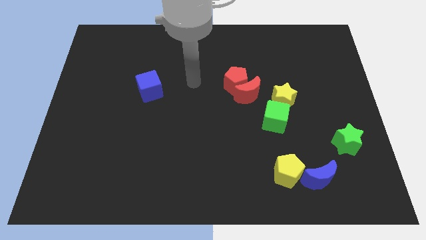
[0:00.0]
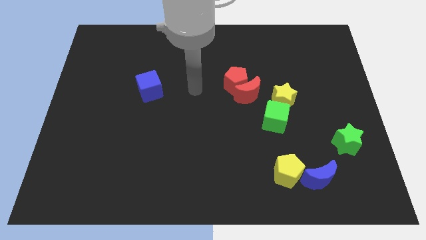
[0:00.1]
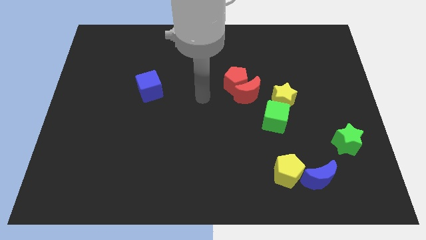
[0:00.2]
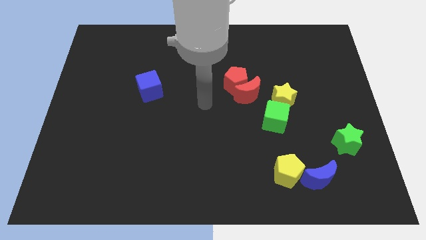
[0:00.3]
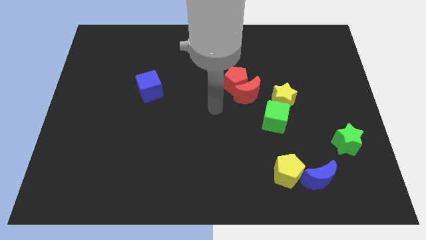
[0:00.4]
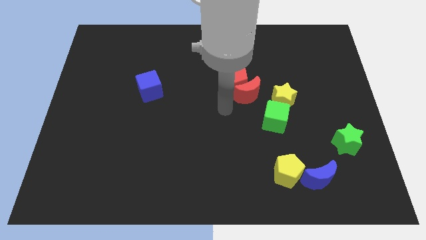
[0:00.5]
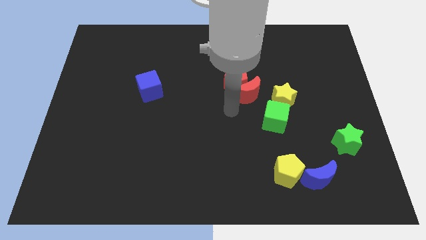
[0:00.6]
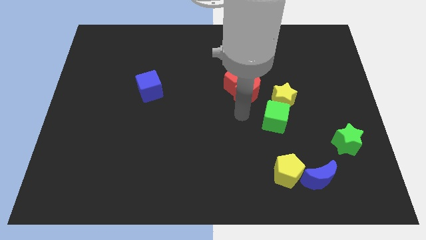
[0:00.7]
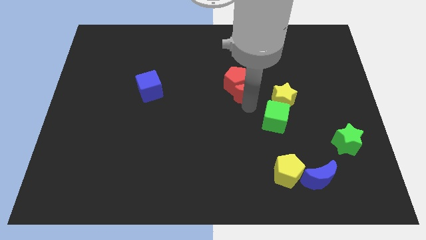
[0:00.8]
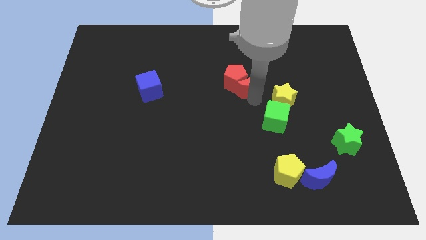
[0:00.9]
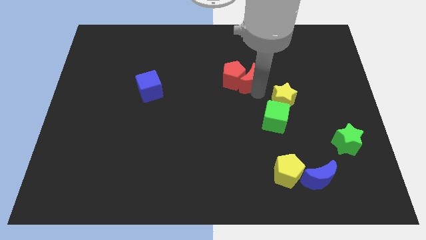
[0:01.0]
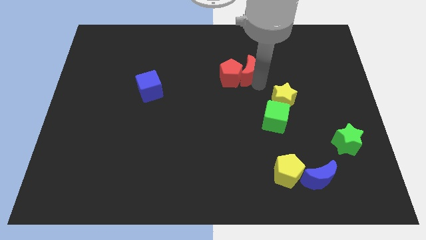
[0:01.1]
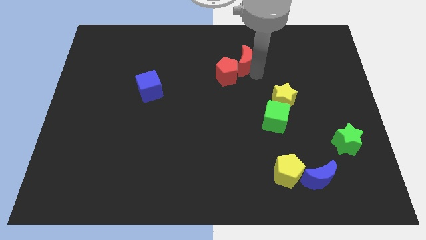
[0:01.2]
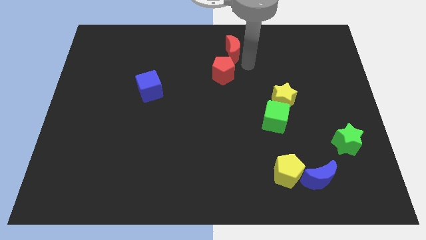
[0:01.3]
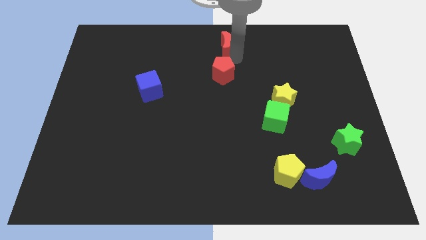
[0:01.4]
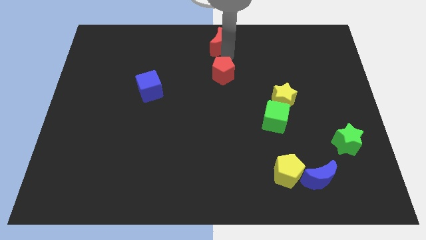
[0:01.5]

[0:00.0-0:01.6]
pull the red pentagon apart from the red moon

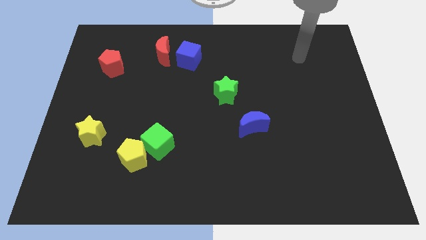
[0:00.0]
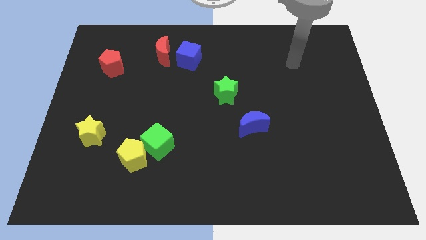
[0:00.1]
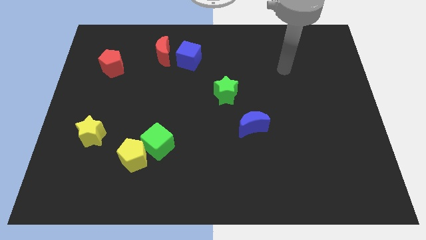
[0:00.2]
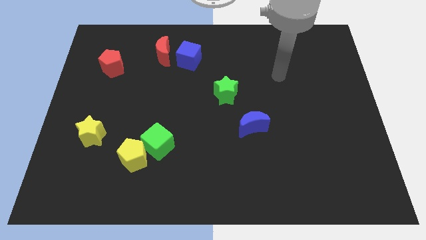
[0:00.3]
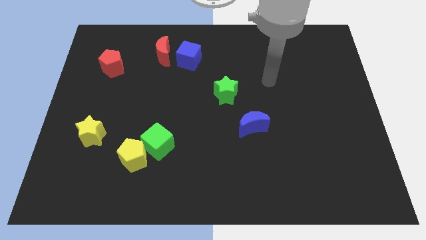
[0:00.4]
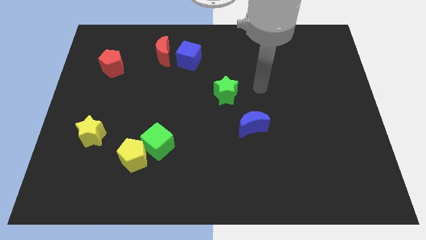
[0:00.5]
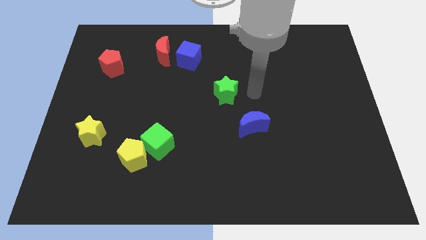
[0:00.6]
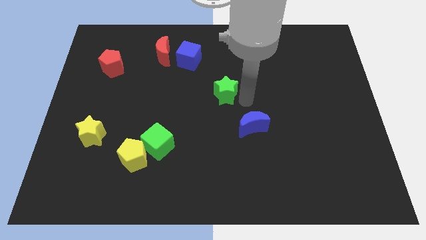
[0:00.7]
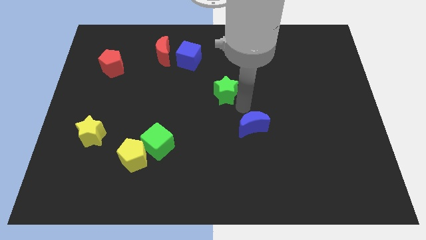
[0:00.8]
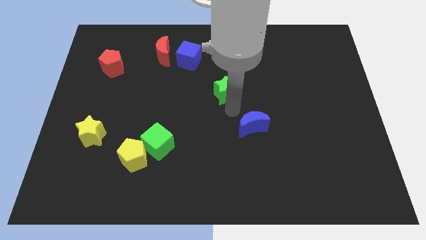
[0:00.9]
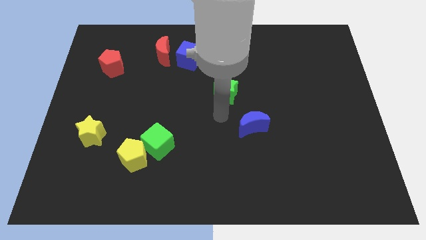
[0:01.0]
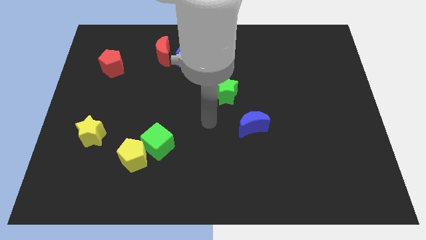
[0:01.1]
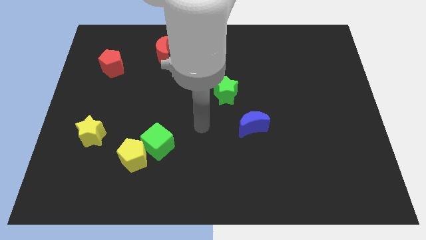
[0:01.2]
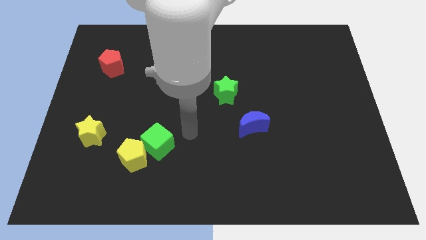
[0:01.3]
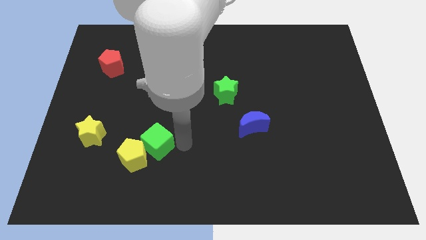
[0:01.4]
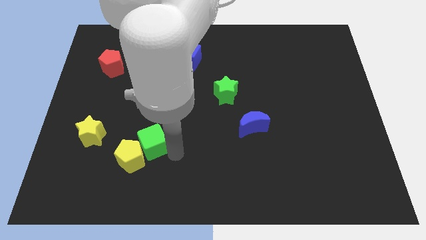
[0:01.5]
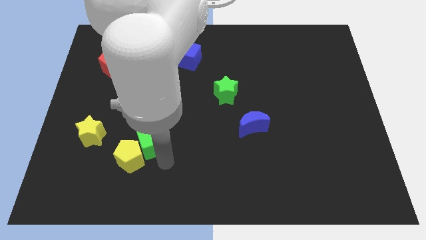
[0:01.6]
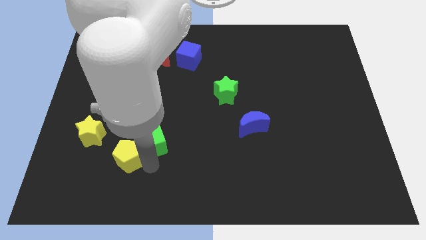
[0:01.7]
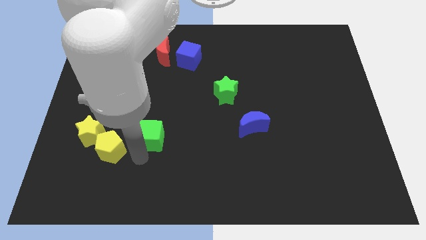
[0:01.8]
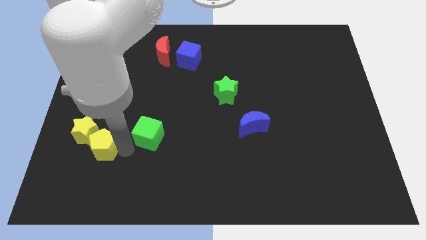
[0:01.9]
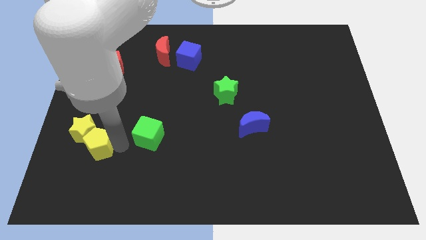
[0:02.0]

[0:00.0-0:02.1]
separate the green cube from the yellow pentagon

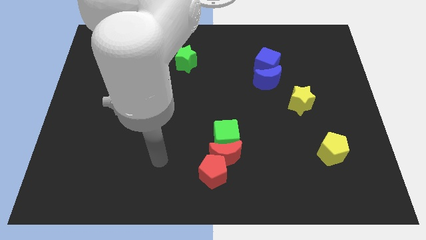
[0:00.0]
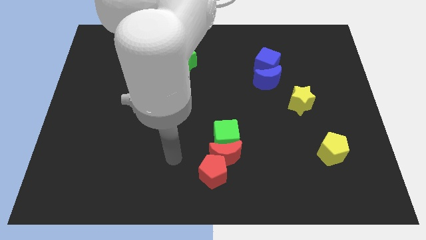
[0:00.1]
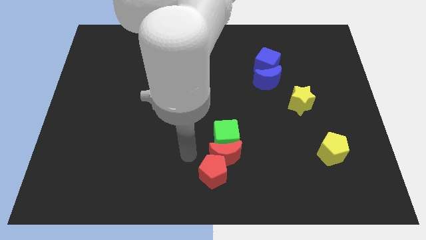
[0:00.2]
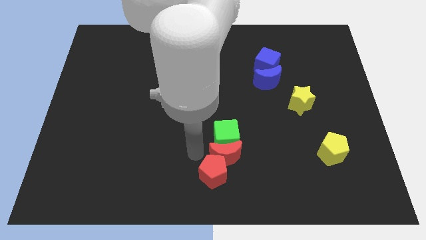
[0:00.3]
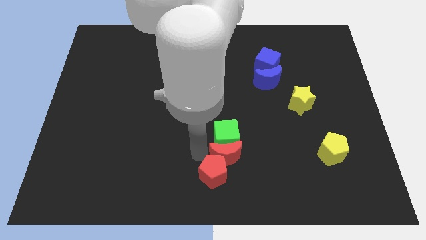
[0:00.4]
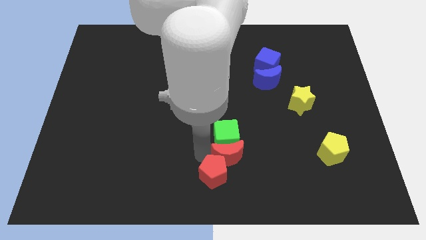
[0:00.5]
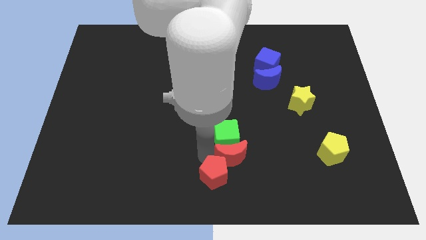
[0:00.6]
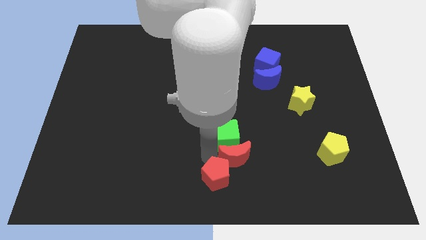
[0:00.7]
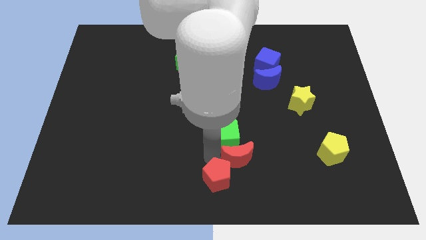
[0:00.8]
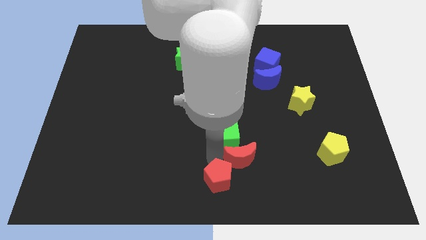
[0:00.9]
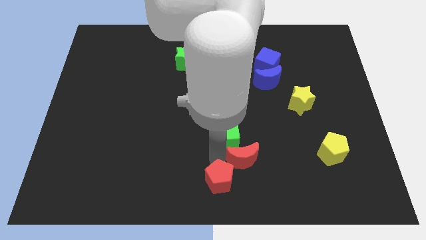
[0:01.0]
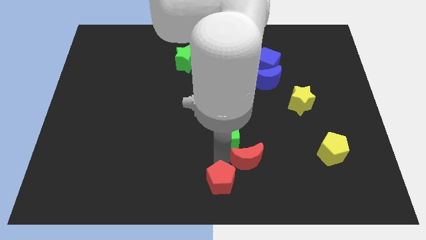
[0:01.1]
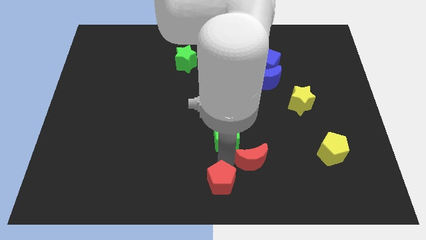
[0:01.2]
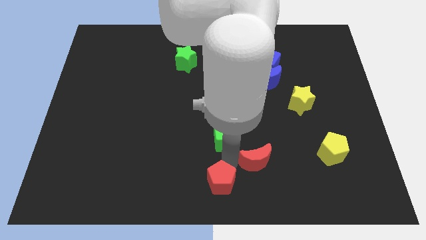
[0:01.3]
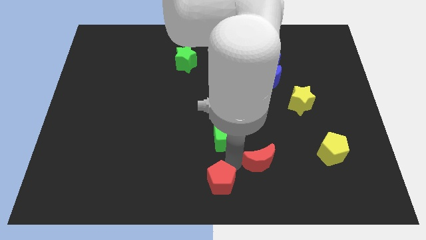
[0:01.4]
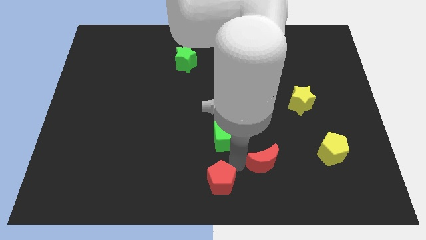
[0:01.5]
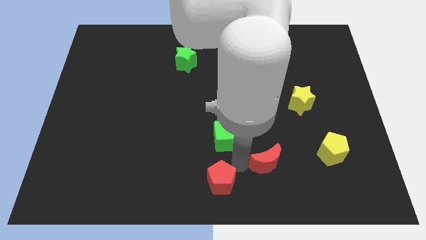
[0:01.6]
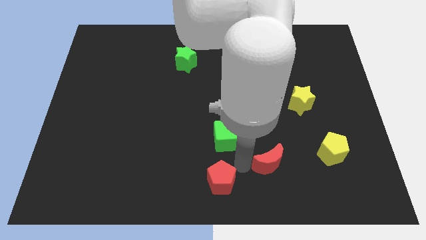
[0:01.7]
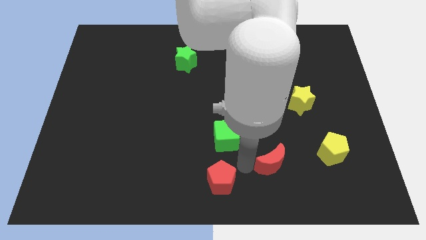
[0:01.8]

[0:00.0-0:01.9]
pull the red moon apart from the green cube and red pentagon

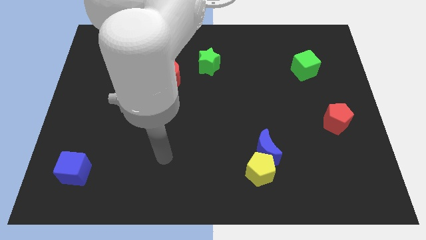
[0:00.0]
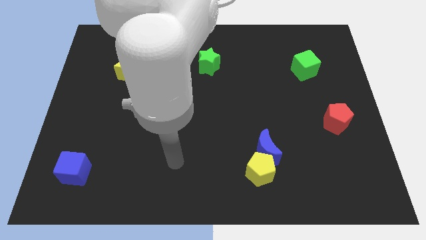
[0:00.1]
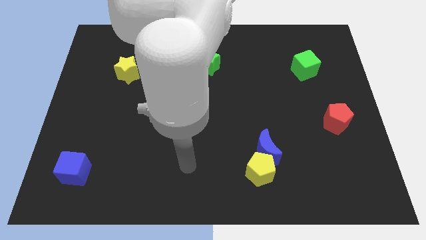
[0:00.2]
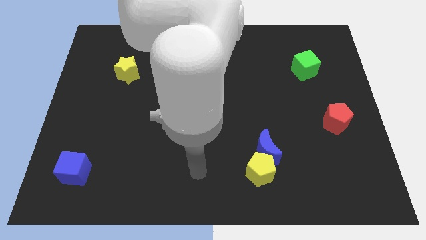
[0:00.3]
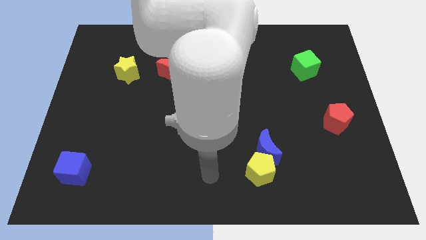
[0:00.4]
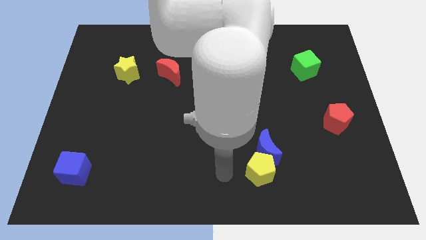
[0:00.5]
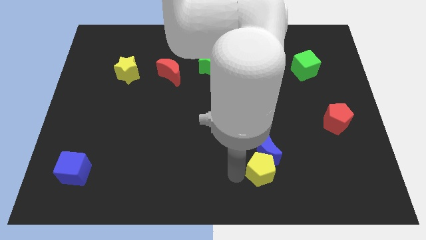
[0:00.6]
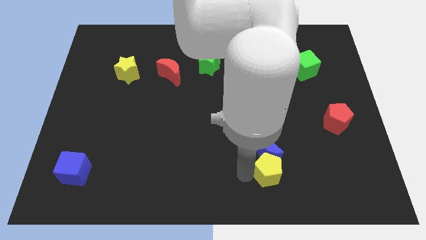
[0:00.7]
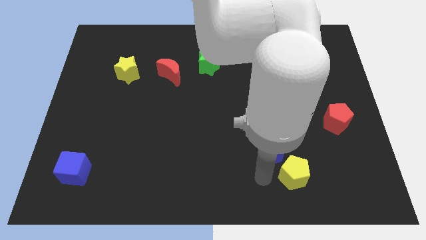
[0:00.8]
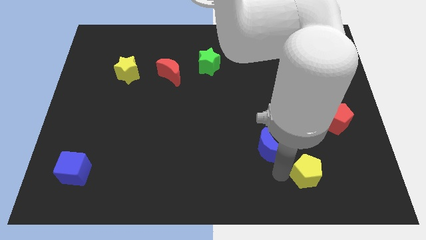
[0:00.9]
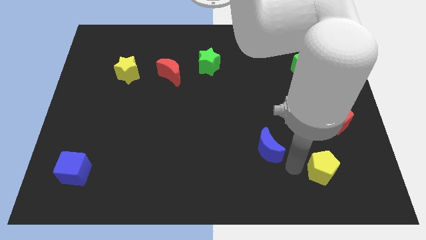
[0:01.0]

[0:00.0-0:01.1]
separate the blue moon from the yellow pentagon

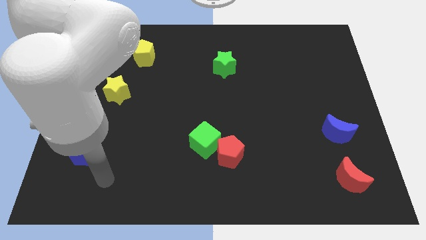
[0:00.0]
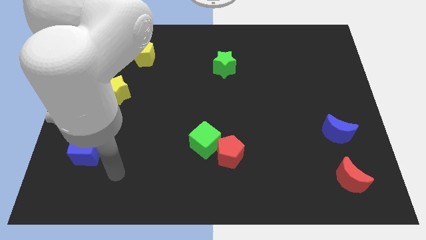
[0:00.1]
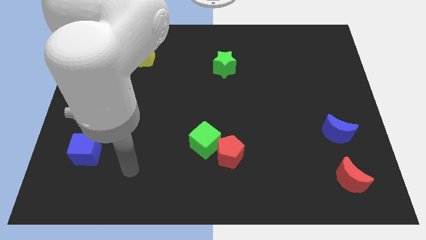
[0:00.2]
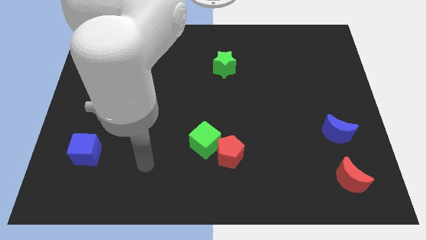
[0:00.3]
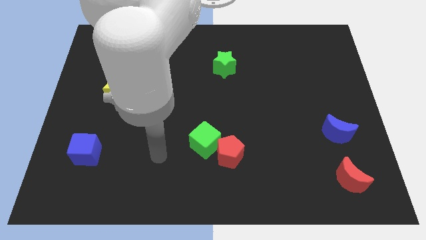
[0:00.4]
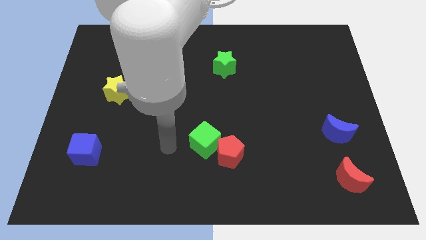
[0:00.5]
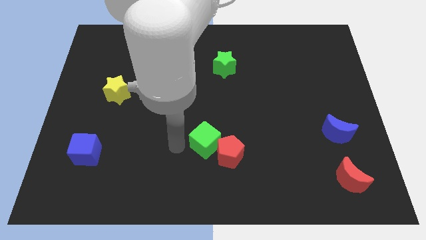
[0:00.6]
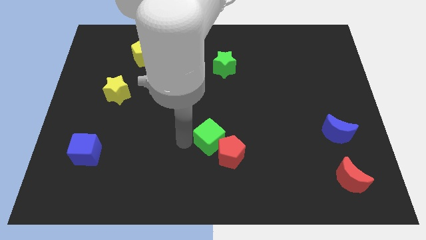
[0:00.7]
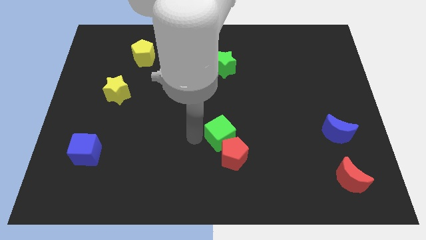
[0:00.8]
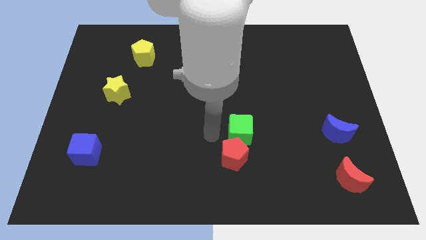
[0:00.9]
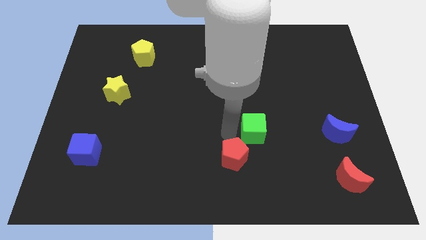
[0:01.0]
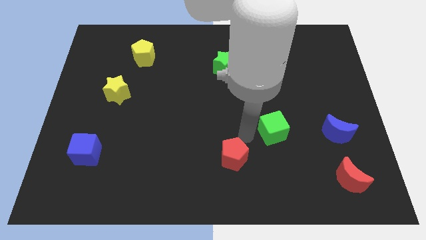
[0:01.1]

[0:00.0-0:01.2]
move the red pentagon away from the green cube

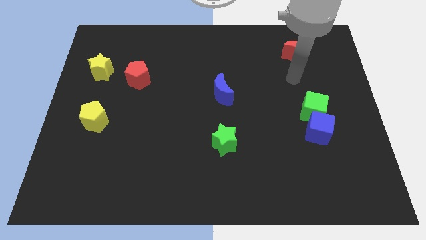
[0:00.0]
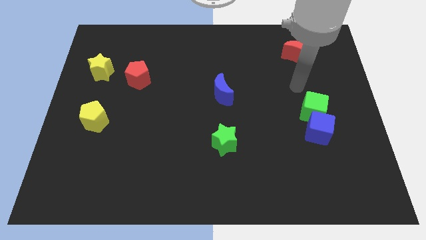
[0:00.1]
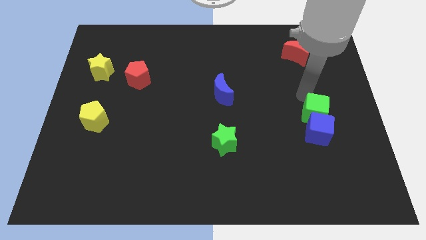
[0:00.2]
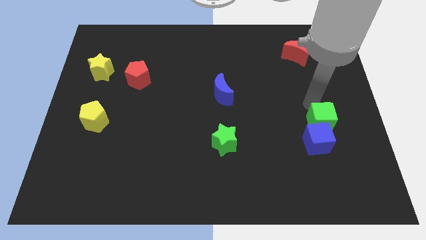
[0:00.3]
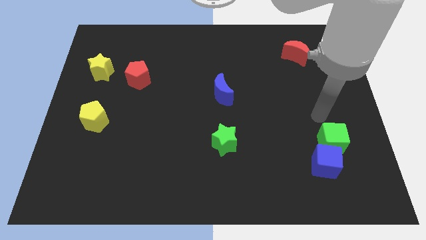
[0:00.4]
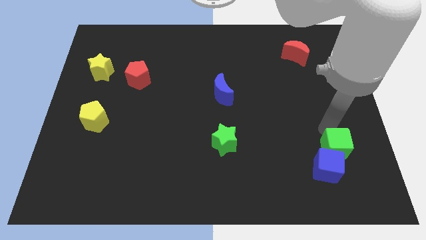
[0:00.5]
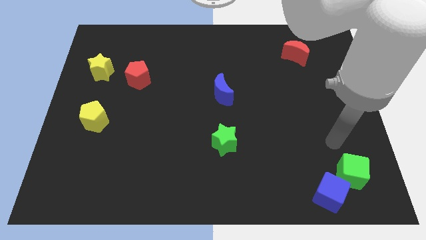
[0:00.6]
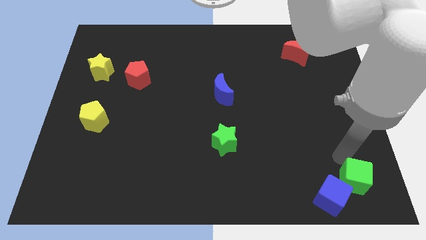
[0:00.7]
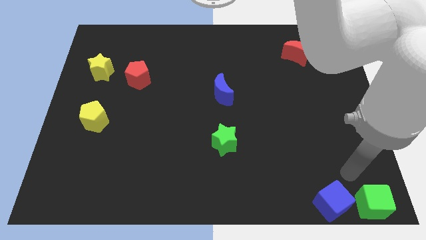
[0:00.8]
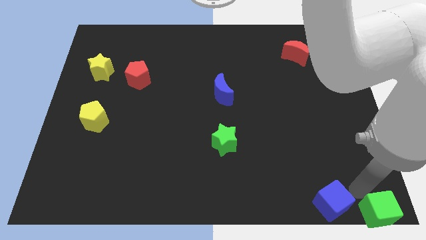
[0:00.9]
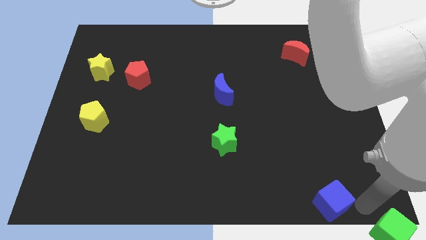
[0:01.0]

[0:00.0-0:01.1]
pull the blue cube apart from the green cube

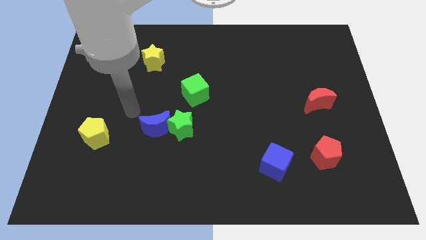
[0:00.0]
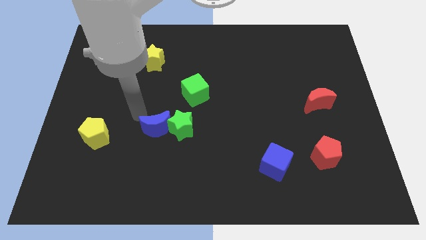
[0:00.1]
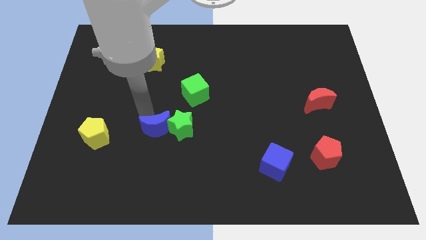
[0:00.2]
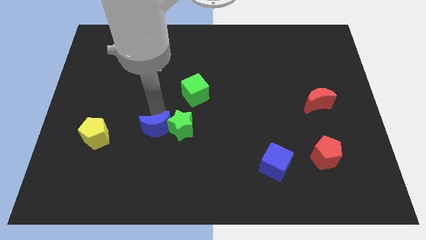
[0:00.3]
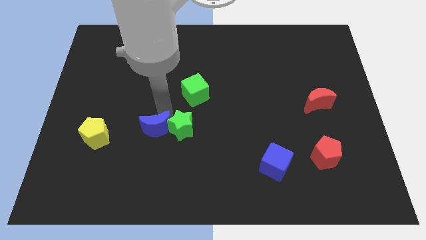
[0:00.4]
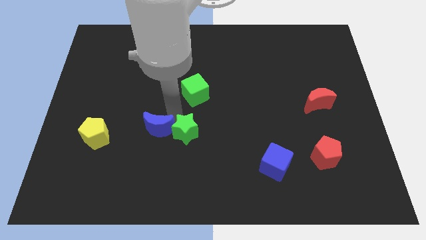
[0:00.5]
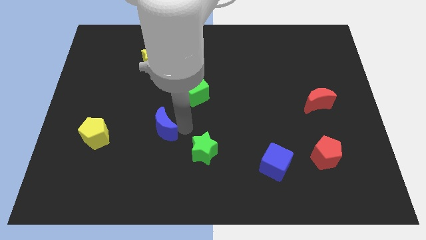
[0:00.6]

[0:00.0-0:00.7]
move the blue moon away from the green star
